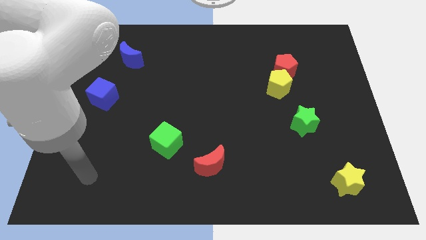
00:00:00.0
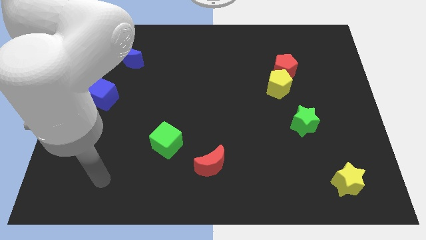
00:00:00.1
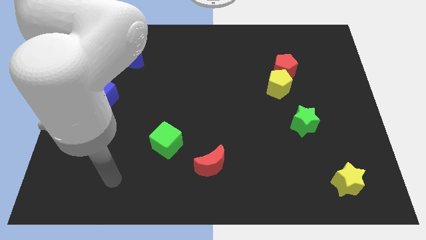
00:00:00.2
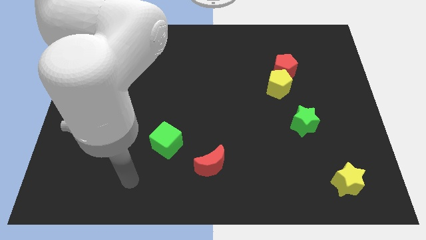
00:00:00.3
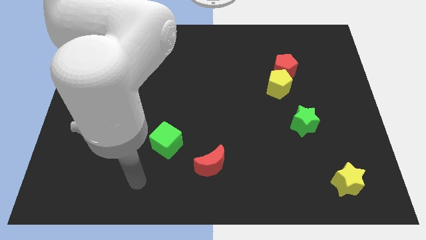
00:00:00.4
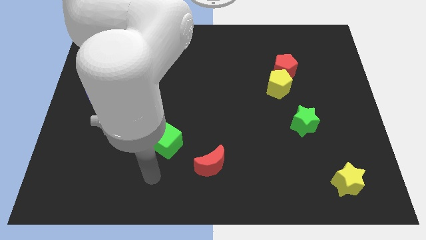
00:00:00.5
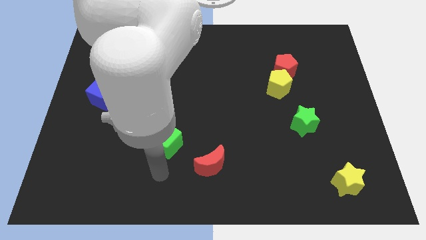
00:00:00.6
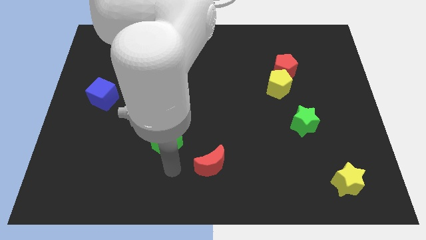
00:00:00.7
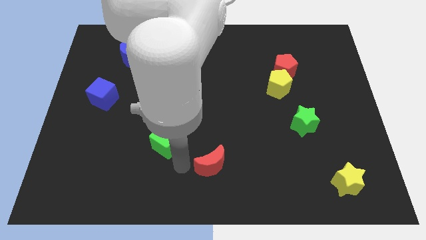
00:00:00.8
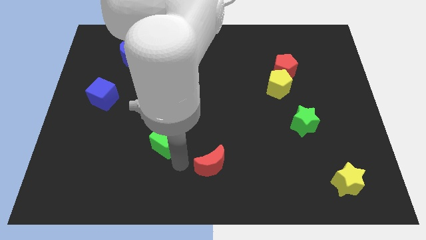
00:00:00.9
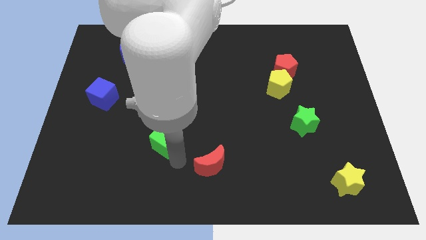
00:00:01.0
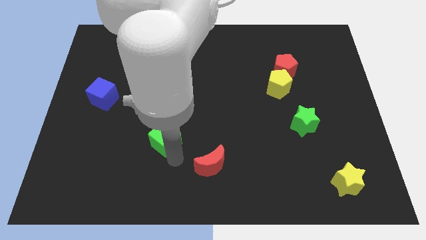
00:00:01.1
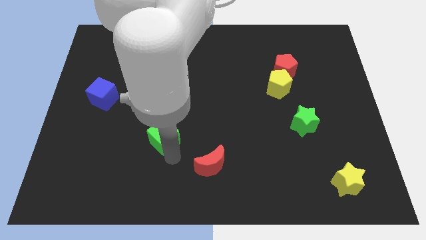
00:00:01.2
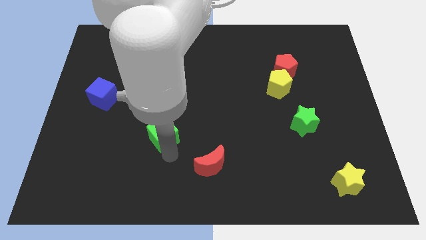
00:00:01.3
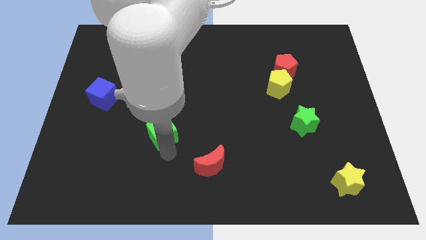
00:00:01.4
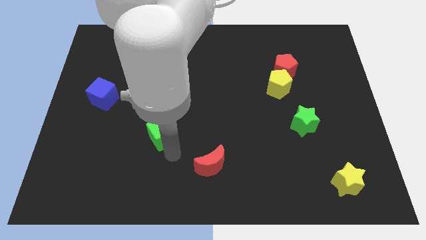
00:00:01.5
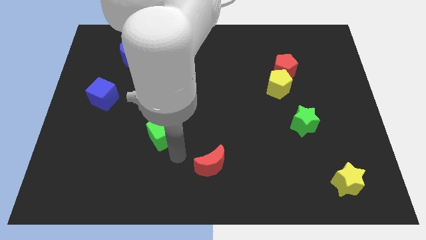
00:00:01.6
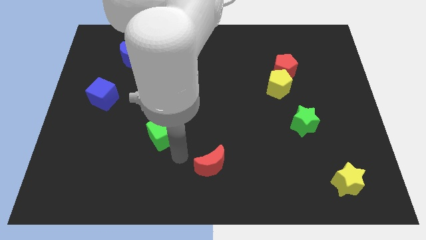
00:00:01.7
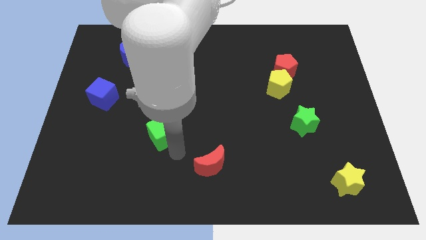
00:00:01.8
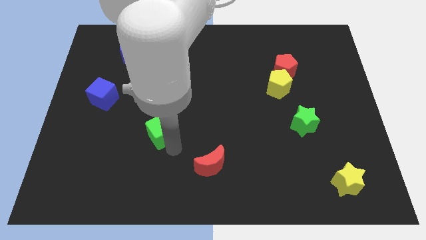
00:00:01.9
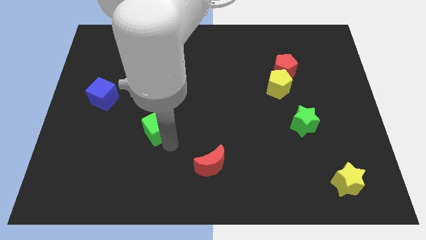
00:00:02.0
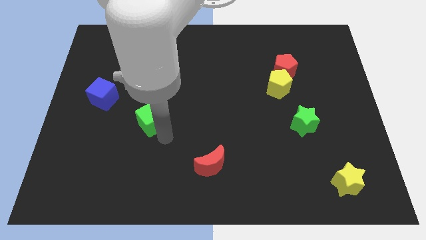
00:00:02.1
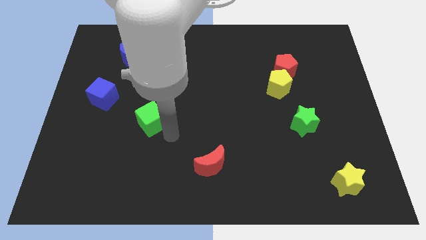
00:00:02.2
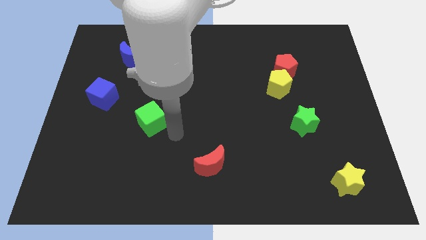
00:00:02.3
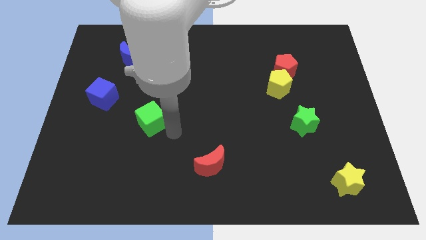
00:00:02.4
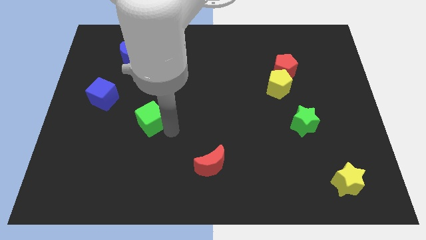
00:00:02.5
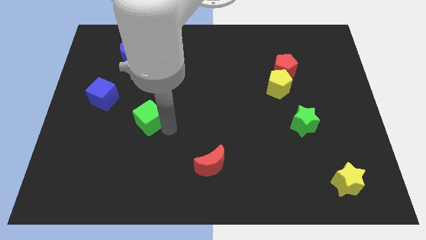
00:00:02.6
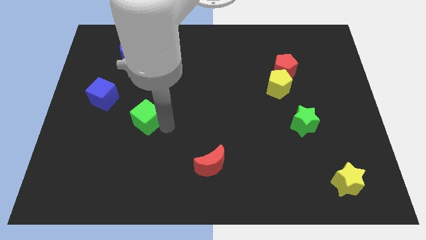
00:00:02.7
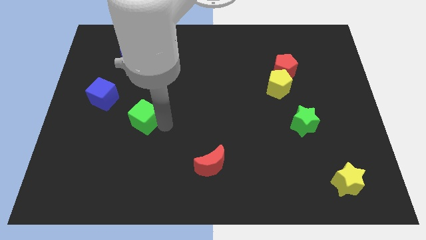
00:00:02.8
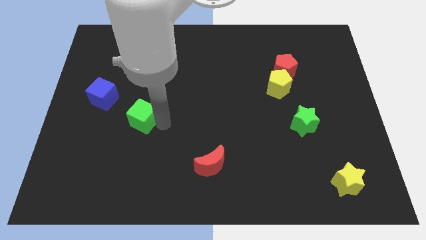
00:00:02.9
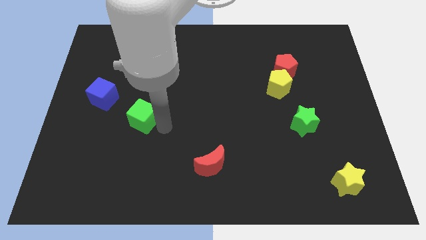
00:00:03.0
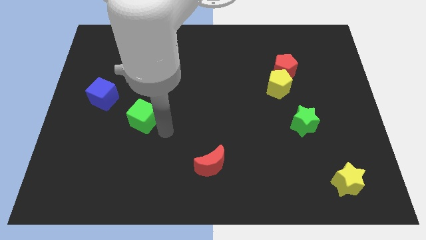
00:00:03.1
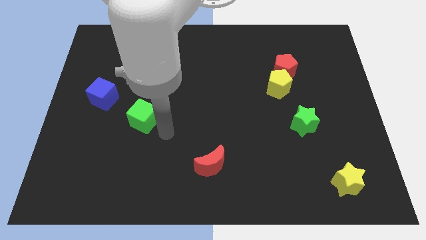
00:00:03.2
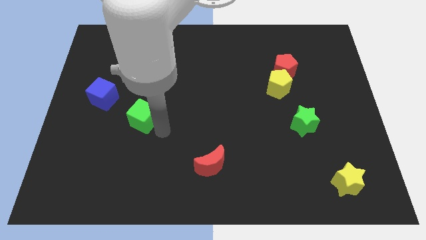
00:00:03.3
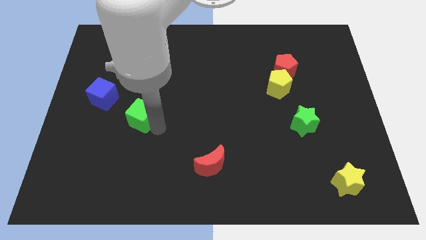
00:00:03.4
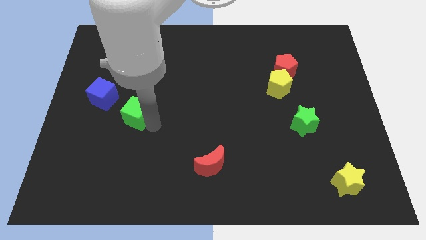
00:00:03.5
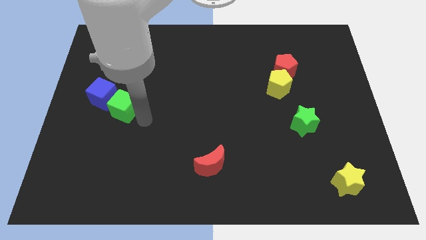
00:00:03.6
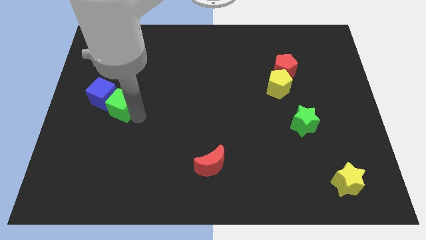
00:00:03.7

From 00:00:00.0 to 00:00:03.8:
move the green cube next to the blue cube

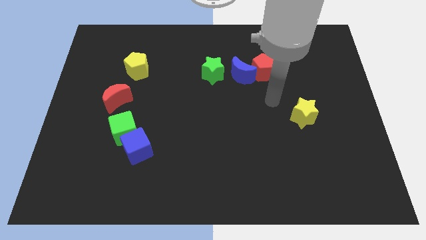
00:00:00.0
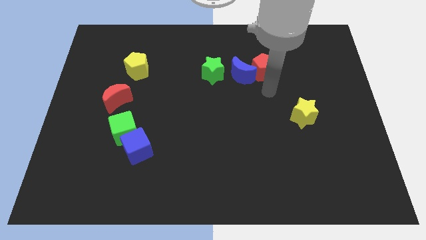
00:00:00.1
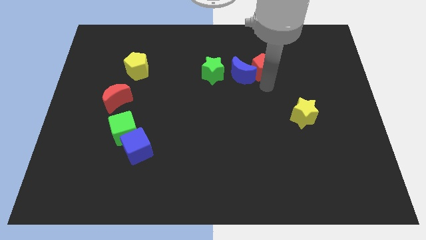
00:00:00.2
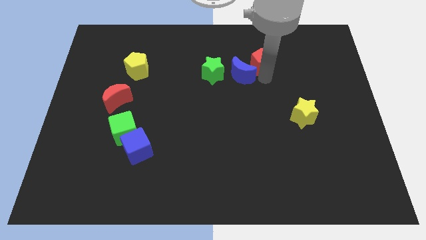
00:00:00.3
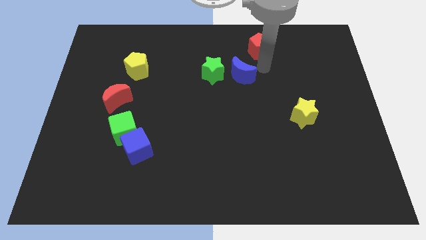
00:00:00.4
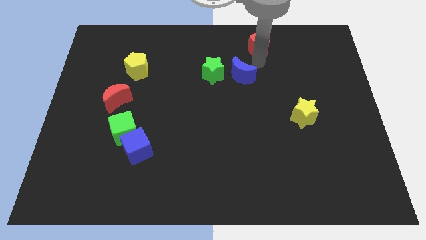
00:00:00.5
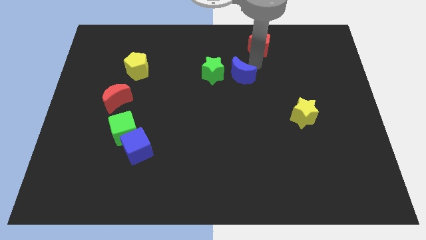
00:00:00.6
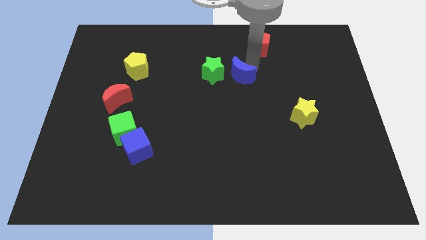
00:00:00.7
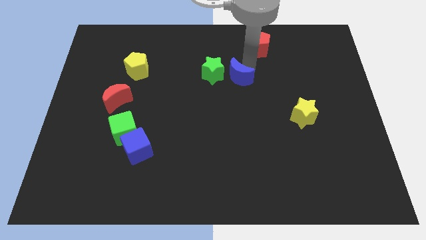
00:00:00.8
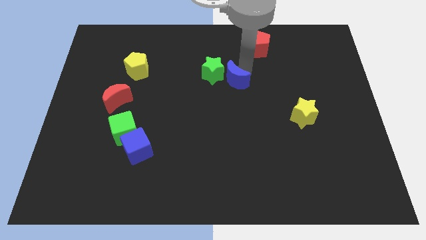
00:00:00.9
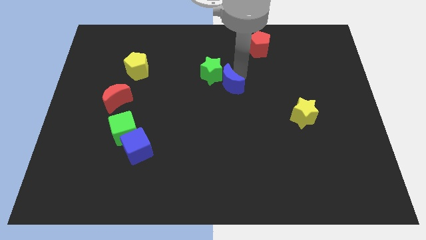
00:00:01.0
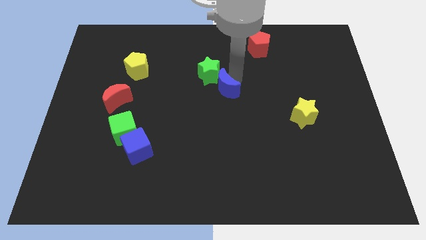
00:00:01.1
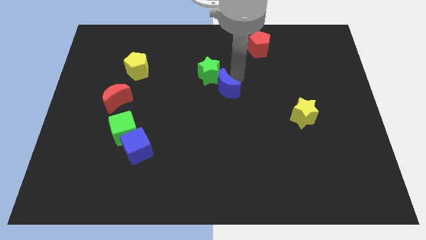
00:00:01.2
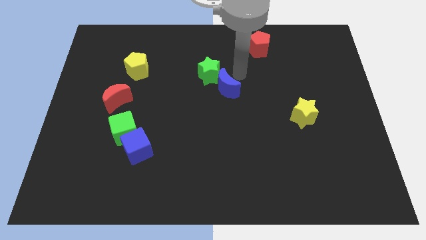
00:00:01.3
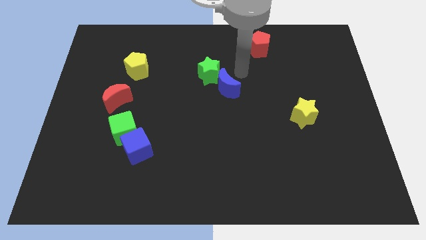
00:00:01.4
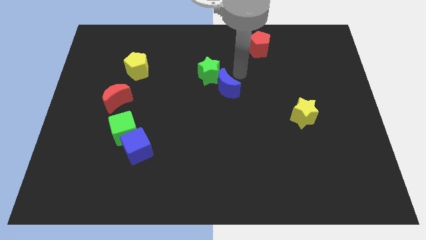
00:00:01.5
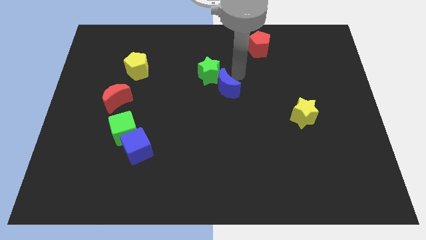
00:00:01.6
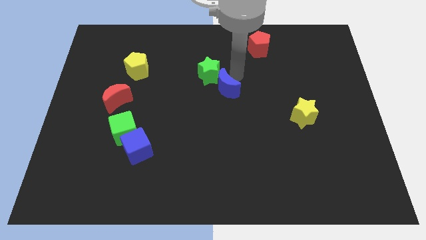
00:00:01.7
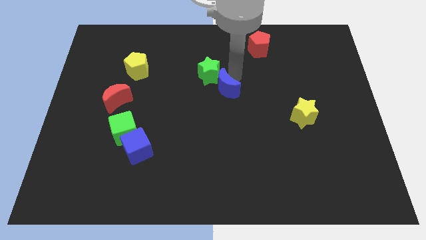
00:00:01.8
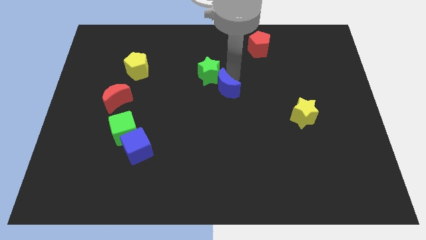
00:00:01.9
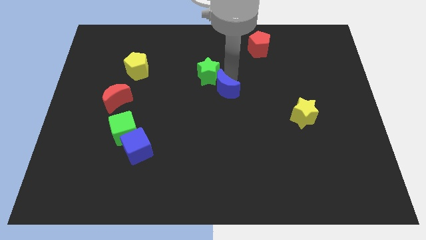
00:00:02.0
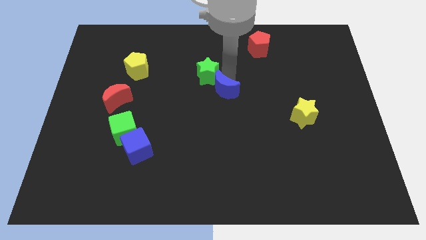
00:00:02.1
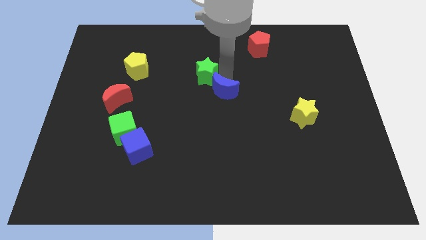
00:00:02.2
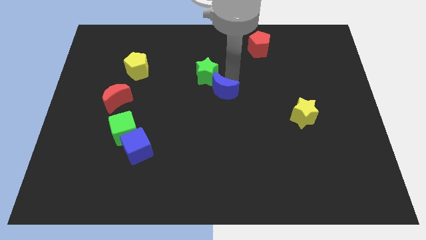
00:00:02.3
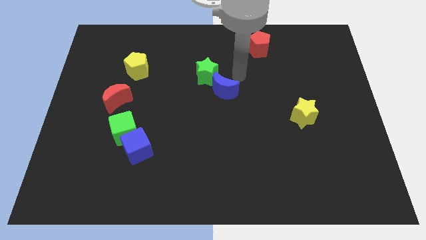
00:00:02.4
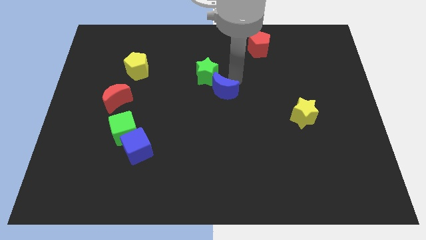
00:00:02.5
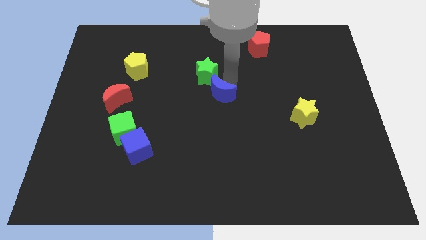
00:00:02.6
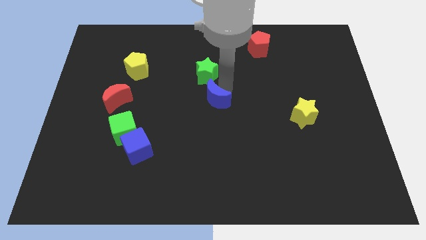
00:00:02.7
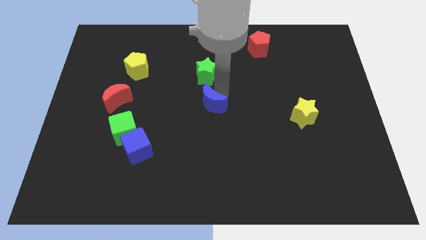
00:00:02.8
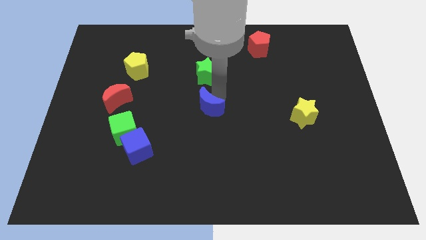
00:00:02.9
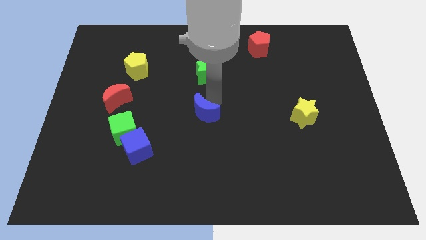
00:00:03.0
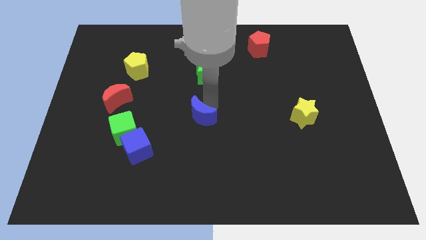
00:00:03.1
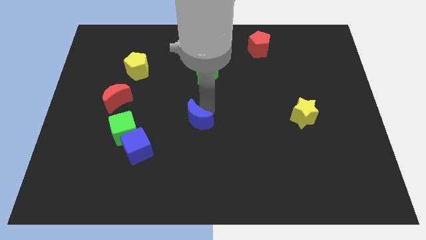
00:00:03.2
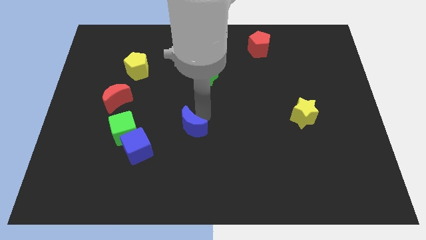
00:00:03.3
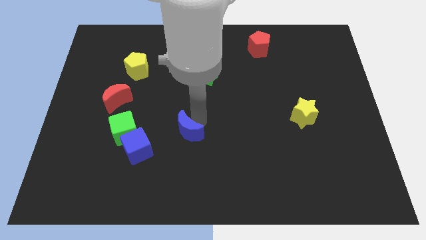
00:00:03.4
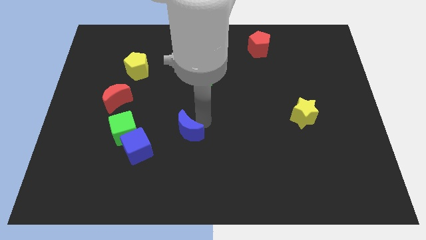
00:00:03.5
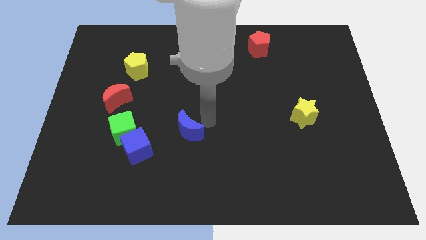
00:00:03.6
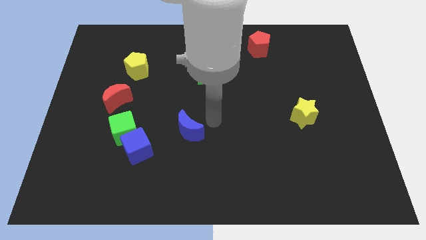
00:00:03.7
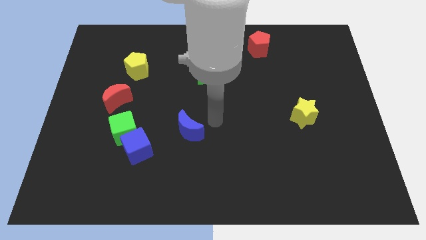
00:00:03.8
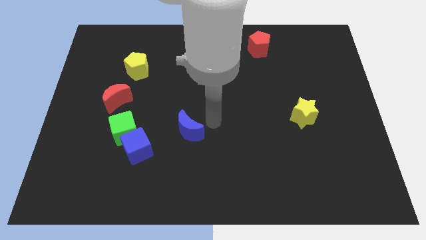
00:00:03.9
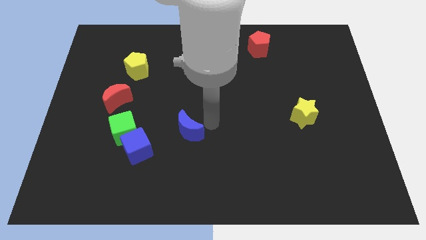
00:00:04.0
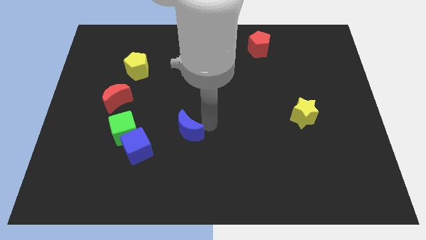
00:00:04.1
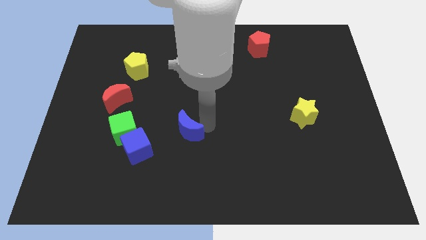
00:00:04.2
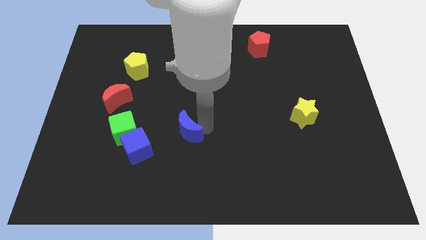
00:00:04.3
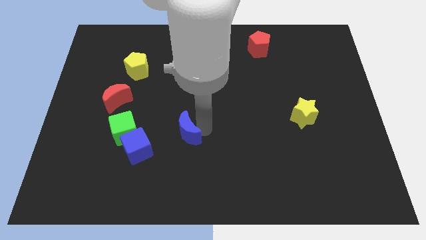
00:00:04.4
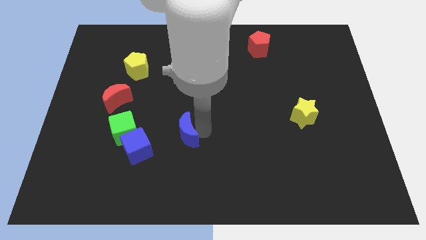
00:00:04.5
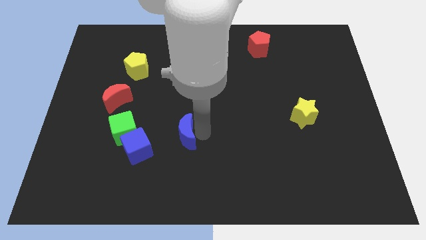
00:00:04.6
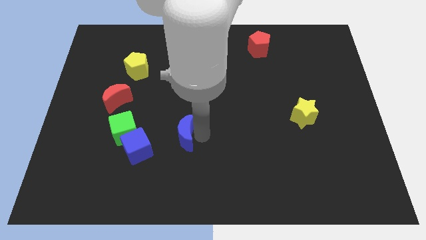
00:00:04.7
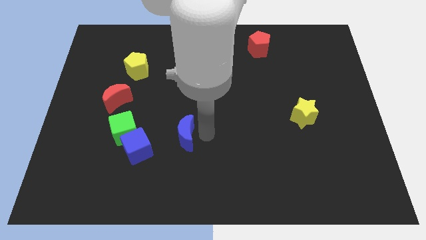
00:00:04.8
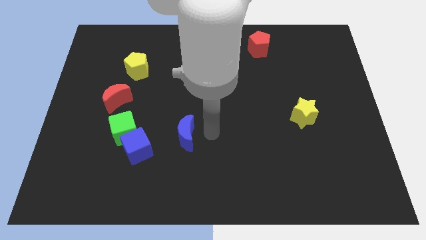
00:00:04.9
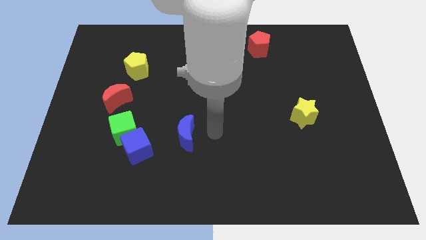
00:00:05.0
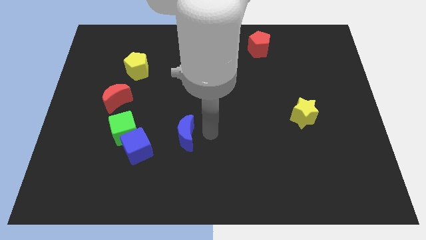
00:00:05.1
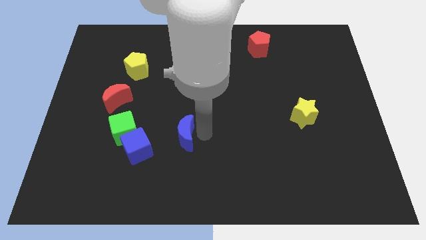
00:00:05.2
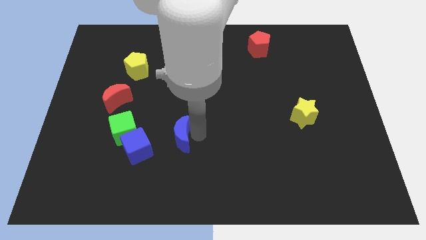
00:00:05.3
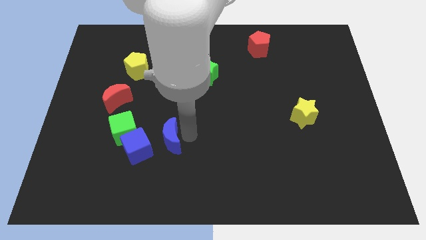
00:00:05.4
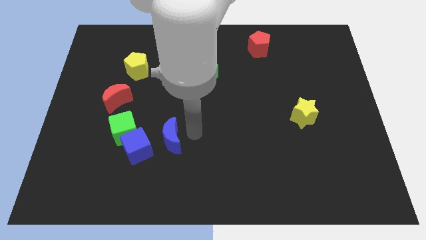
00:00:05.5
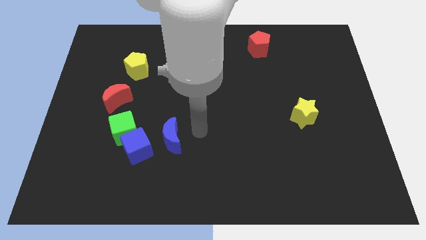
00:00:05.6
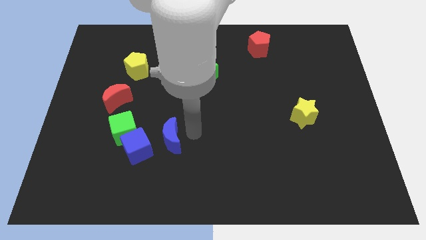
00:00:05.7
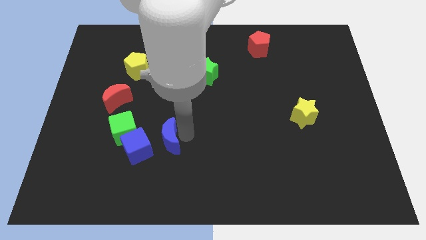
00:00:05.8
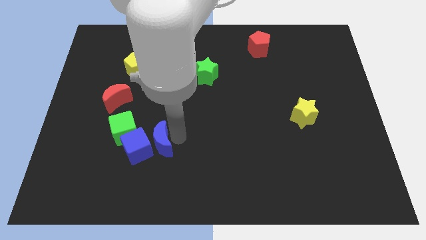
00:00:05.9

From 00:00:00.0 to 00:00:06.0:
push the blue moon next to the blue cube
